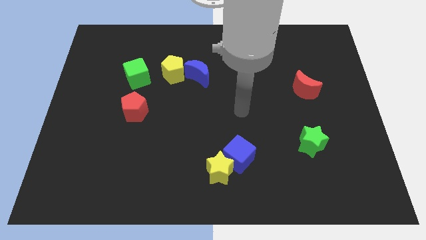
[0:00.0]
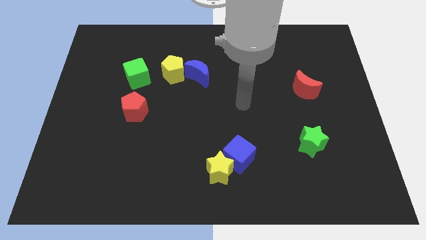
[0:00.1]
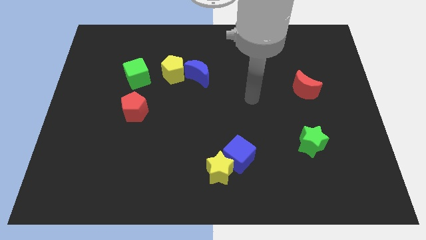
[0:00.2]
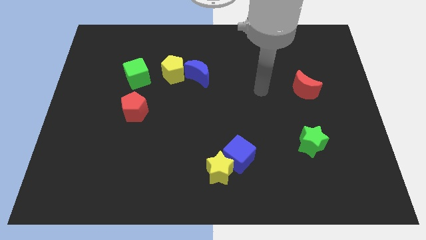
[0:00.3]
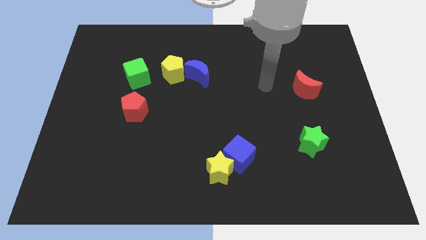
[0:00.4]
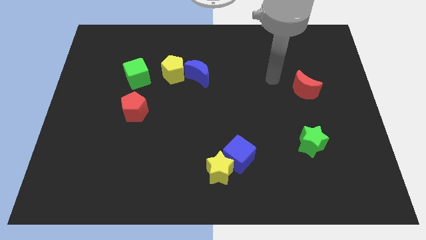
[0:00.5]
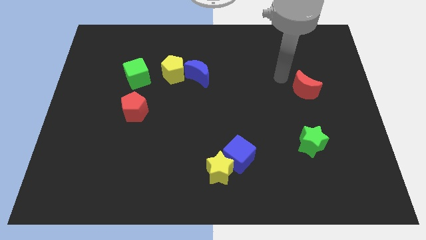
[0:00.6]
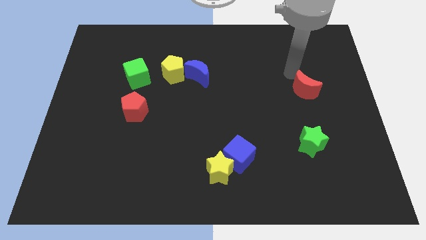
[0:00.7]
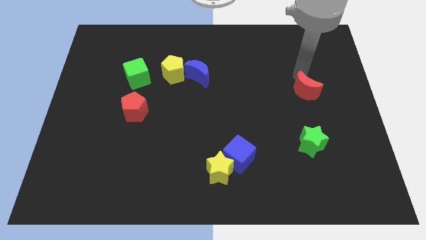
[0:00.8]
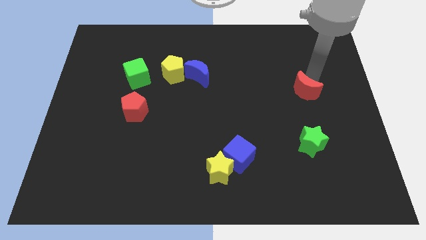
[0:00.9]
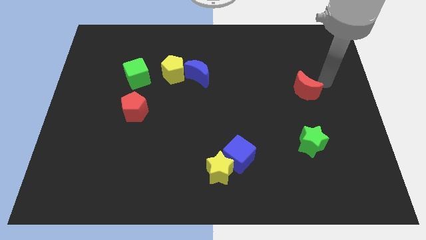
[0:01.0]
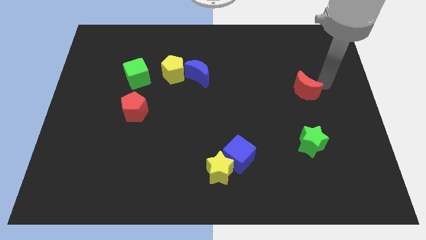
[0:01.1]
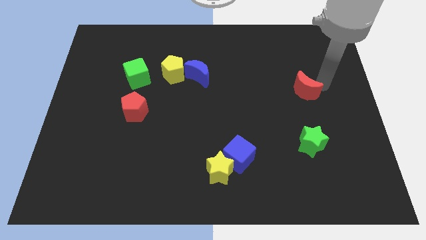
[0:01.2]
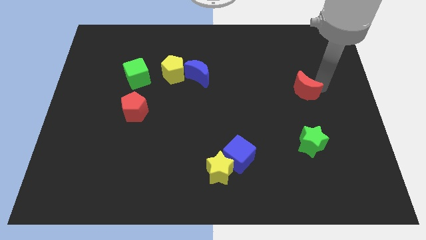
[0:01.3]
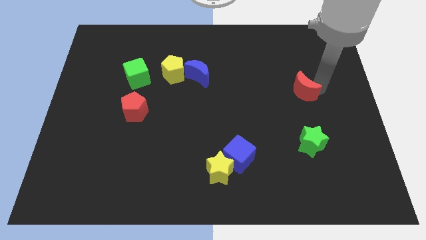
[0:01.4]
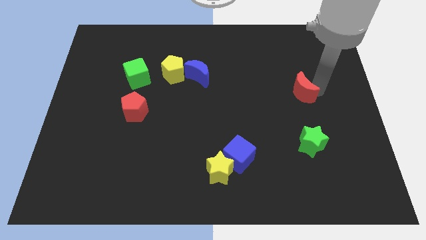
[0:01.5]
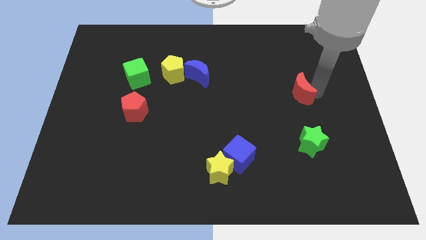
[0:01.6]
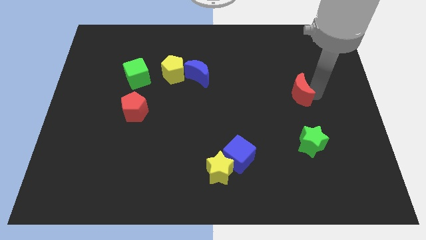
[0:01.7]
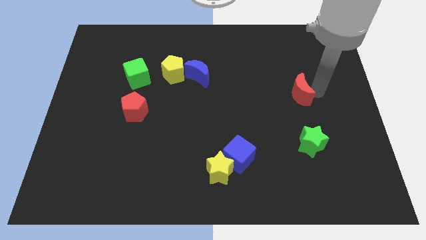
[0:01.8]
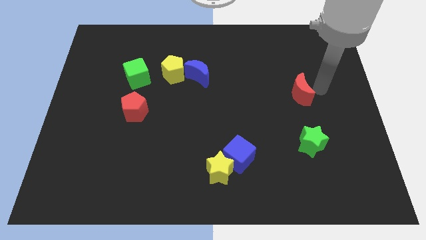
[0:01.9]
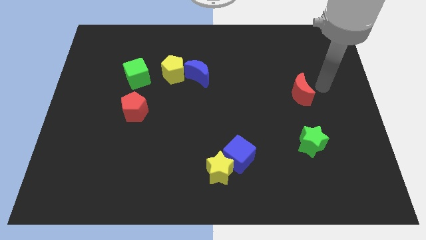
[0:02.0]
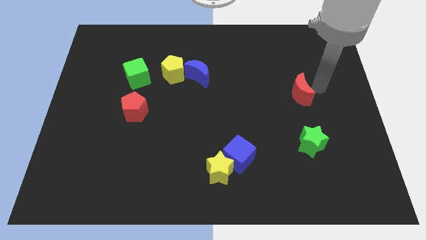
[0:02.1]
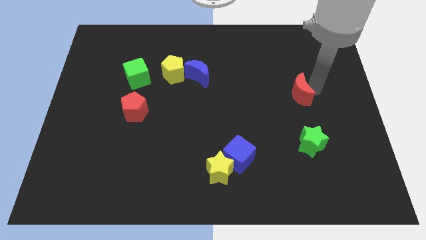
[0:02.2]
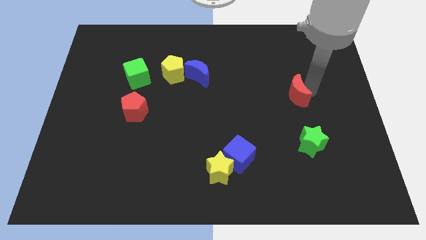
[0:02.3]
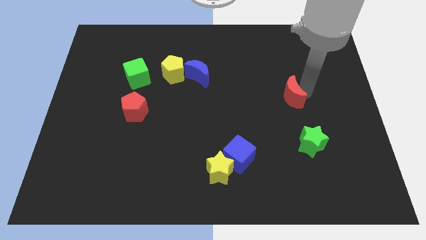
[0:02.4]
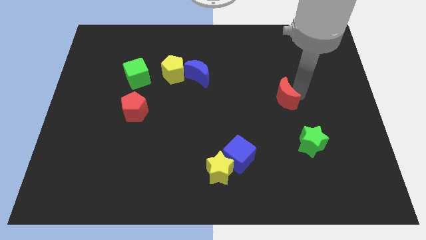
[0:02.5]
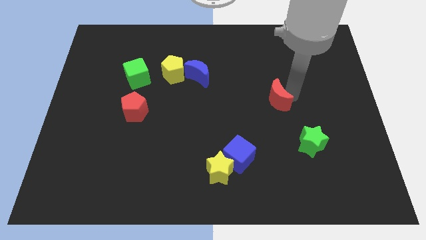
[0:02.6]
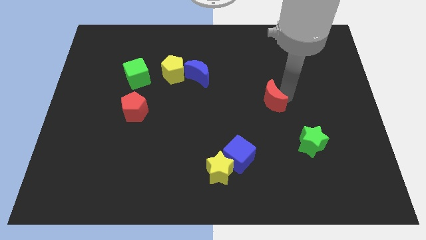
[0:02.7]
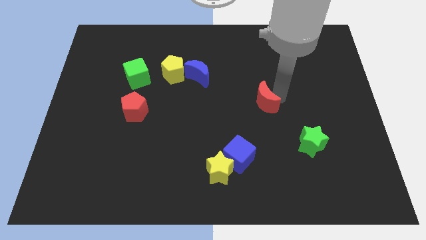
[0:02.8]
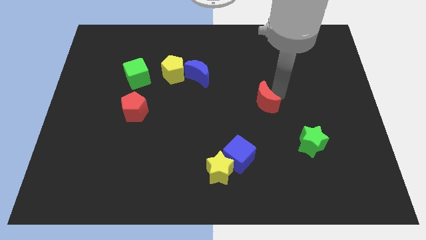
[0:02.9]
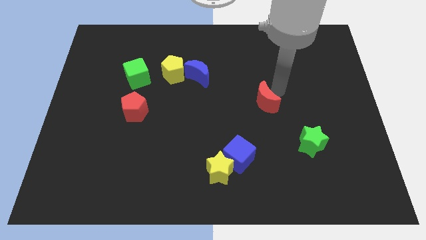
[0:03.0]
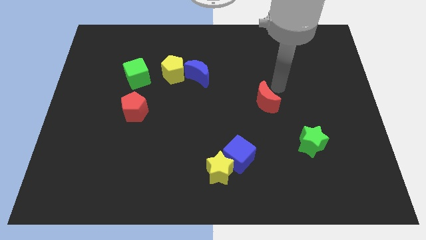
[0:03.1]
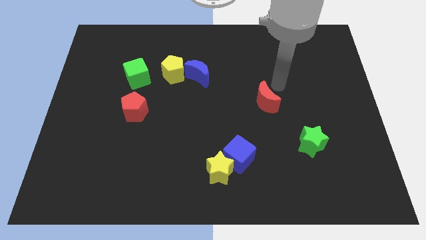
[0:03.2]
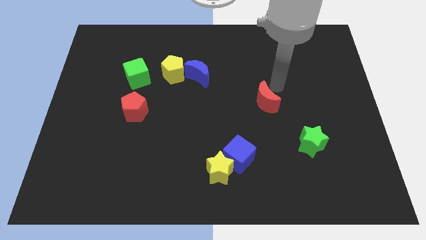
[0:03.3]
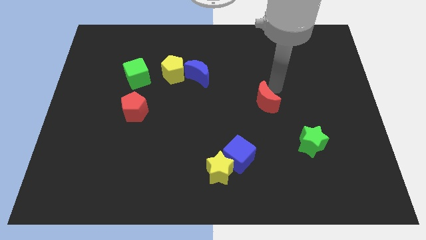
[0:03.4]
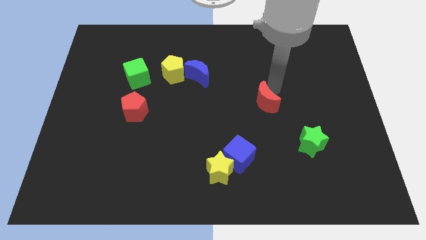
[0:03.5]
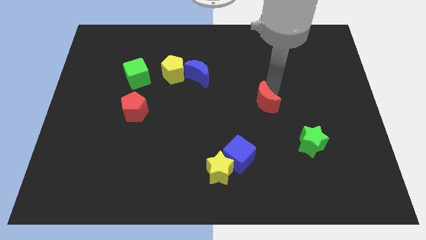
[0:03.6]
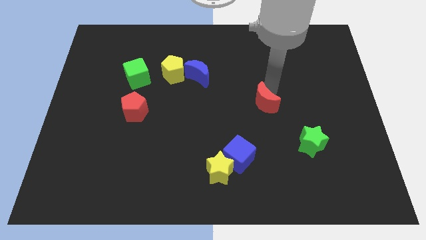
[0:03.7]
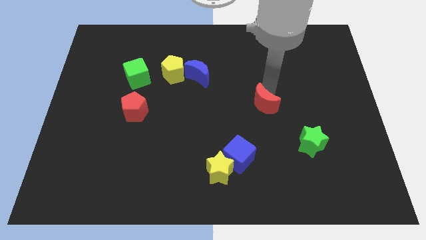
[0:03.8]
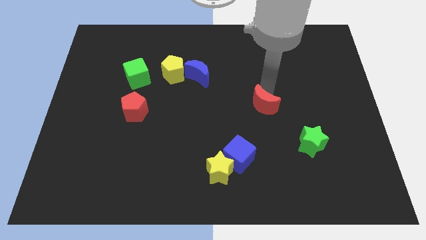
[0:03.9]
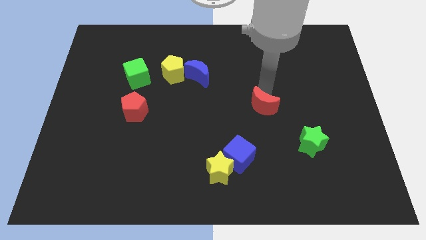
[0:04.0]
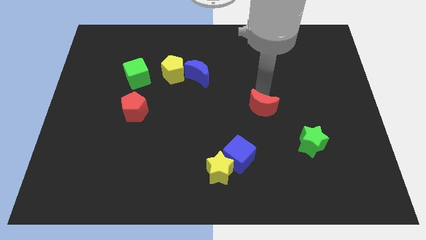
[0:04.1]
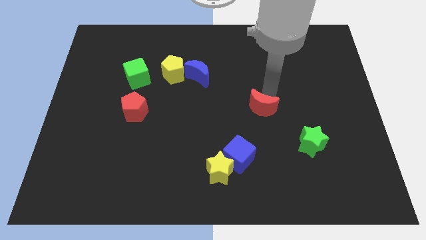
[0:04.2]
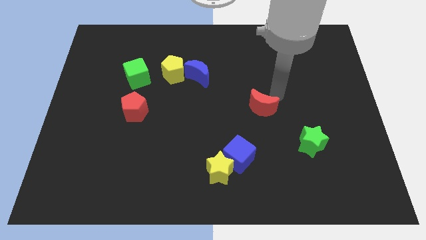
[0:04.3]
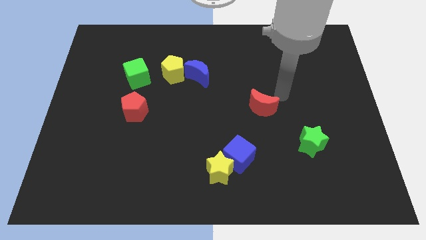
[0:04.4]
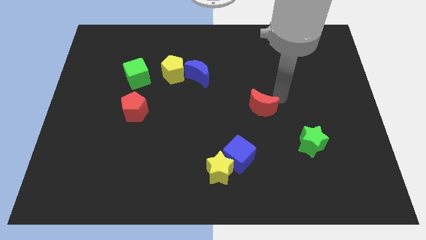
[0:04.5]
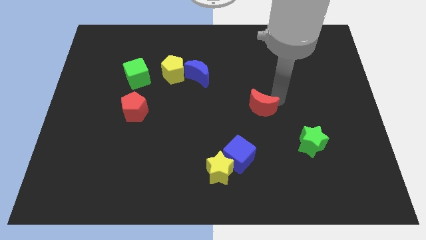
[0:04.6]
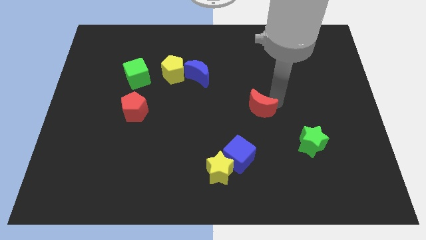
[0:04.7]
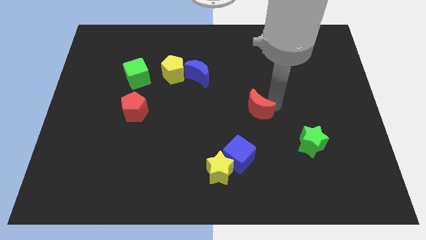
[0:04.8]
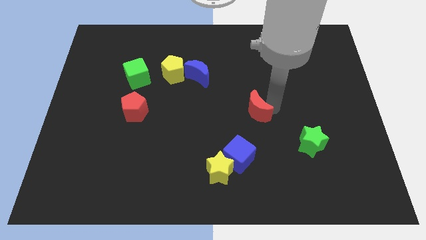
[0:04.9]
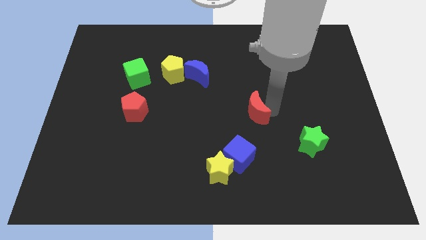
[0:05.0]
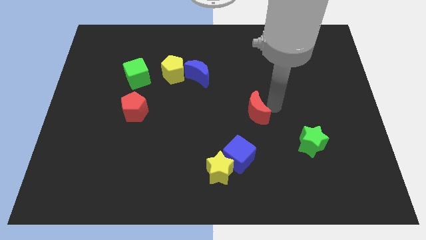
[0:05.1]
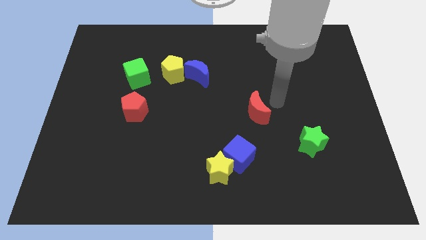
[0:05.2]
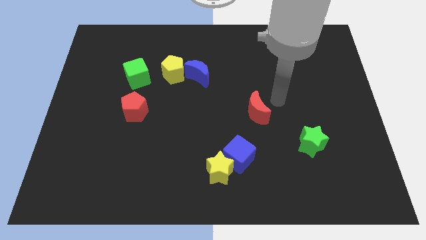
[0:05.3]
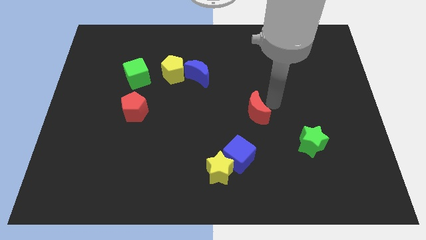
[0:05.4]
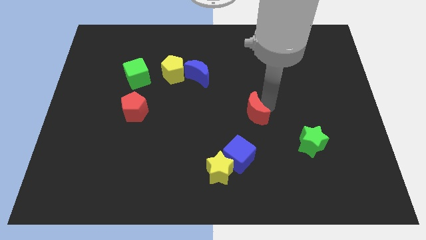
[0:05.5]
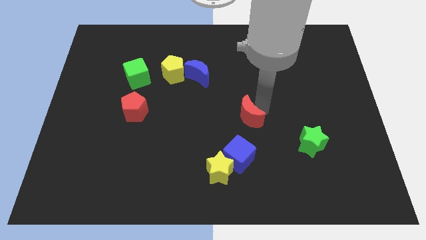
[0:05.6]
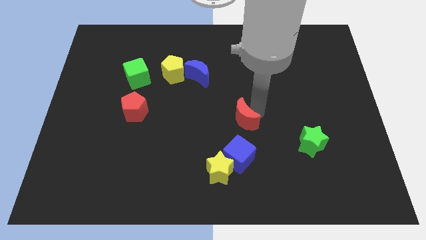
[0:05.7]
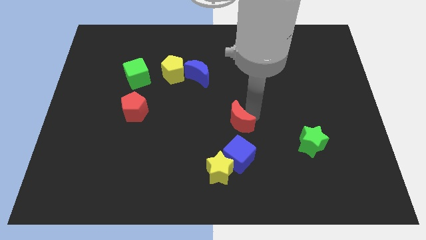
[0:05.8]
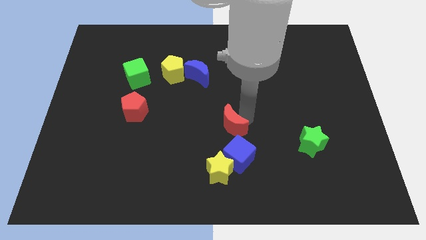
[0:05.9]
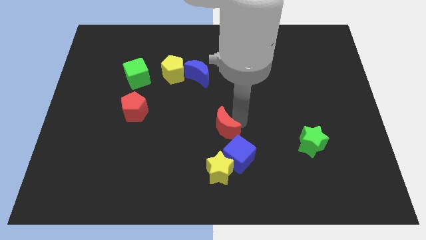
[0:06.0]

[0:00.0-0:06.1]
put the red moon to the top left of the blue cube

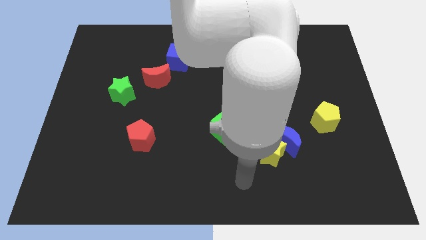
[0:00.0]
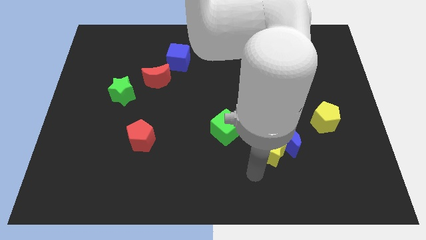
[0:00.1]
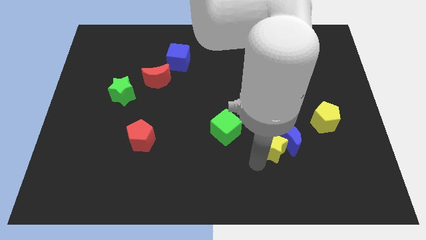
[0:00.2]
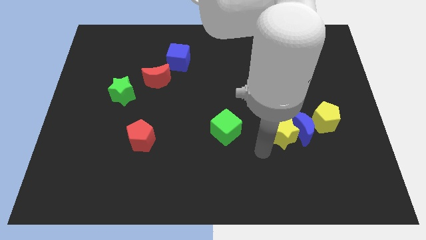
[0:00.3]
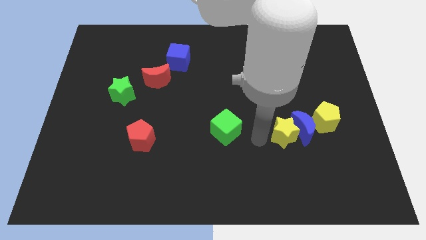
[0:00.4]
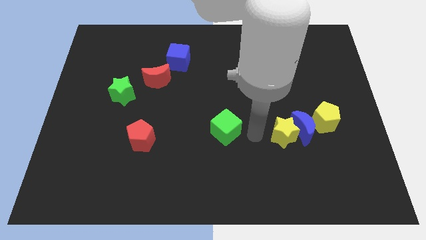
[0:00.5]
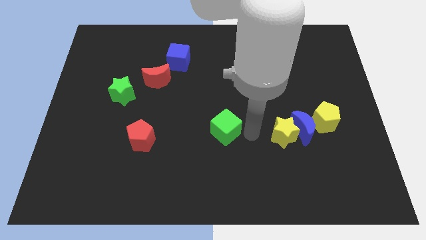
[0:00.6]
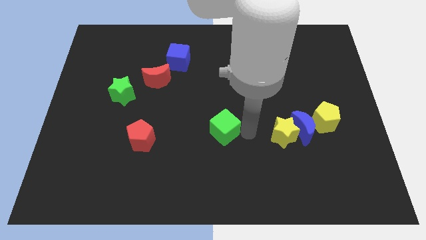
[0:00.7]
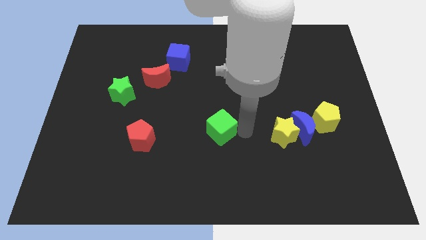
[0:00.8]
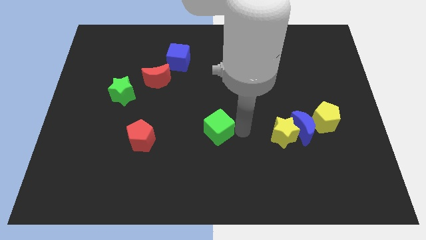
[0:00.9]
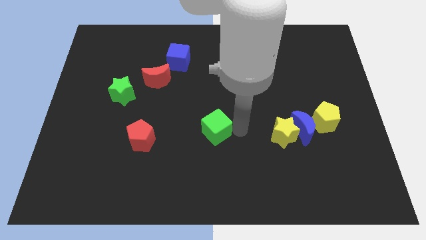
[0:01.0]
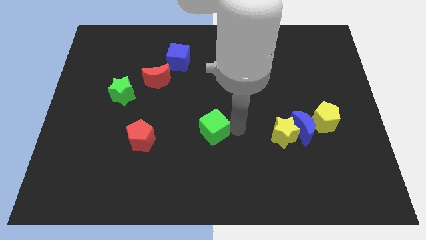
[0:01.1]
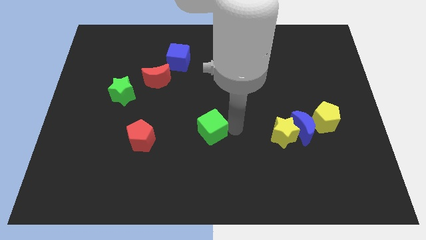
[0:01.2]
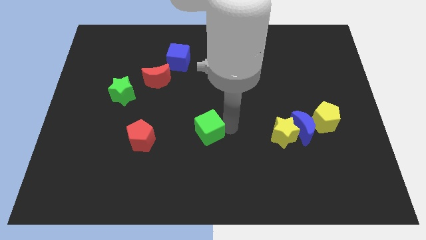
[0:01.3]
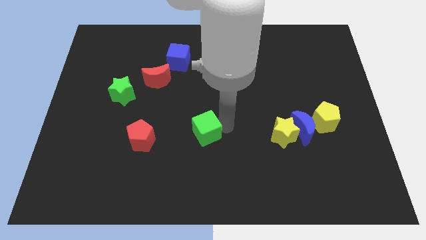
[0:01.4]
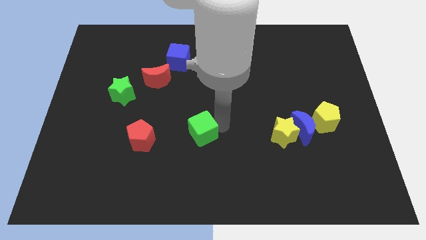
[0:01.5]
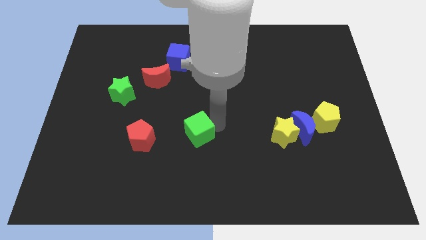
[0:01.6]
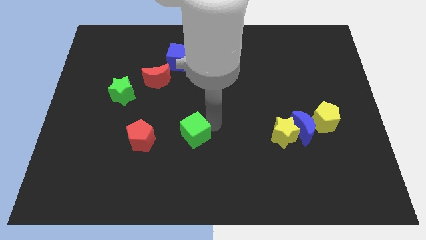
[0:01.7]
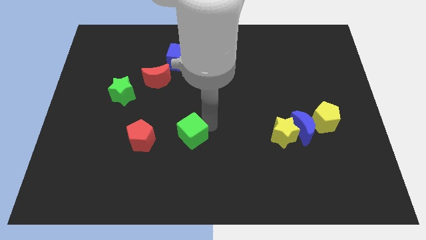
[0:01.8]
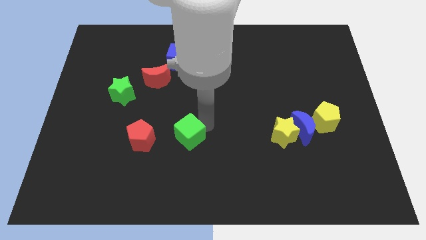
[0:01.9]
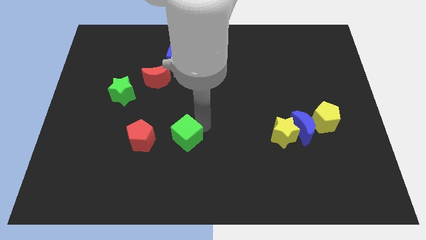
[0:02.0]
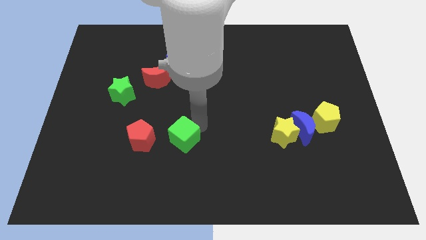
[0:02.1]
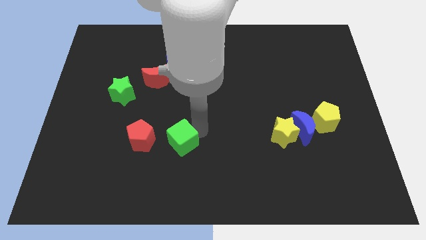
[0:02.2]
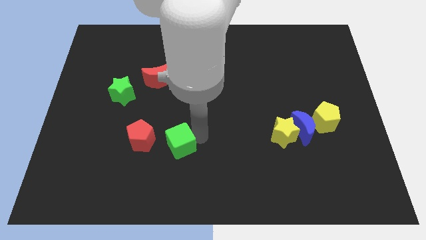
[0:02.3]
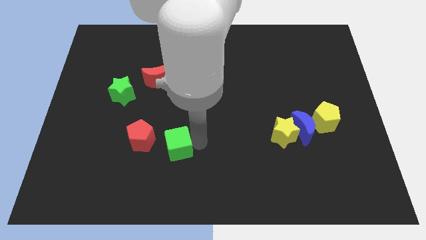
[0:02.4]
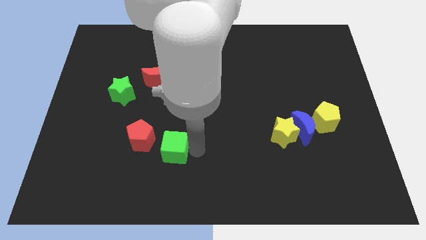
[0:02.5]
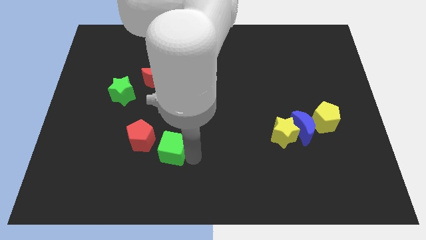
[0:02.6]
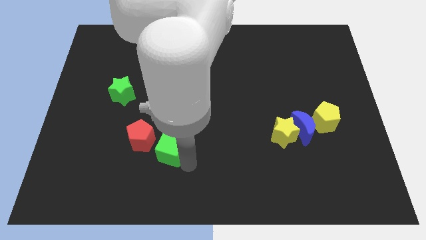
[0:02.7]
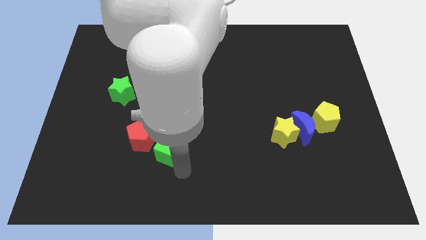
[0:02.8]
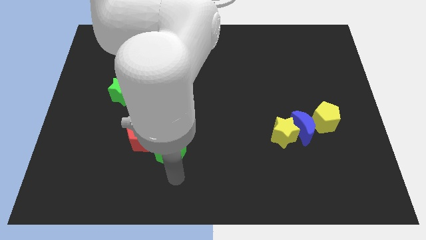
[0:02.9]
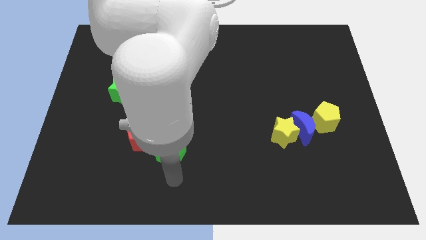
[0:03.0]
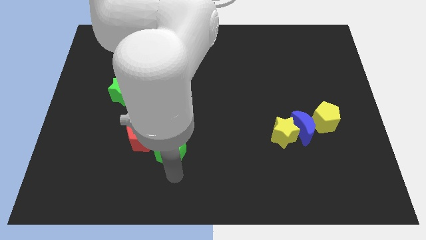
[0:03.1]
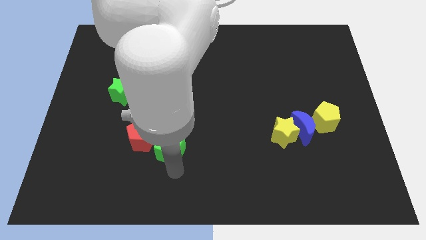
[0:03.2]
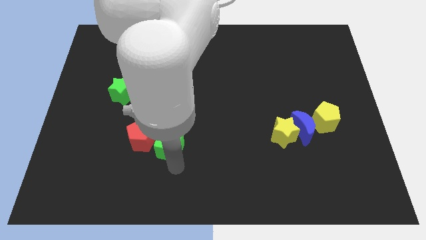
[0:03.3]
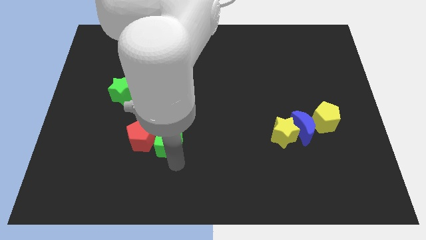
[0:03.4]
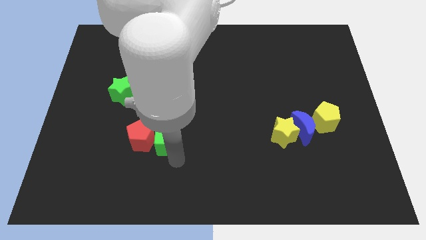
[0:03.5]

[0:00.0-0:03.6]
slide the green cube to the top right of the red pentagon
